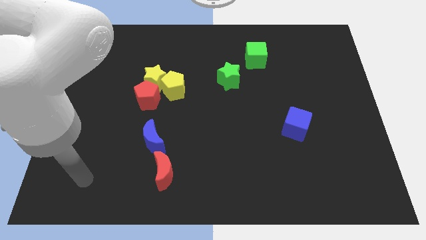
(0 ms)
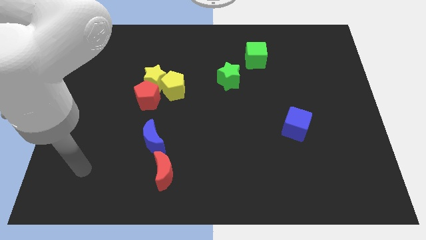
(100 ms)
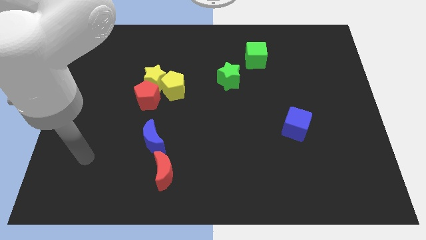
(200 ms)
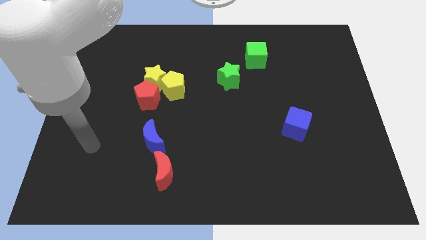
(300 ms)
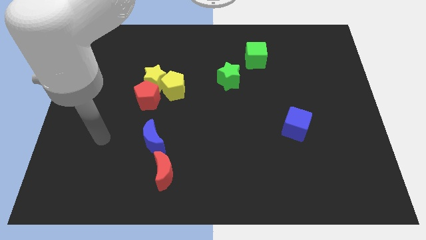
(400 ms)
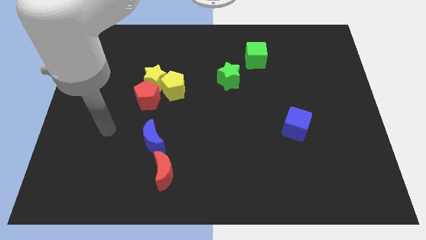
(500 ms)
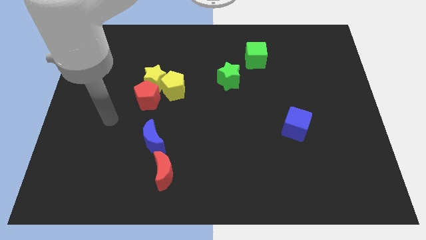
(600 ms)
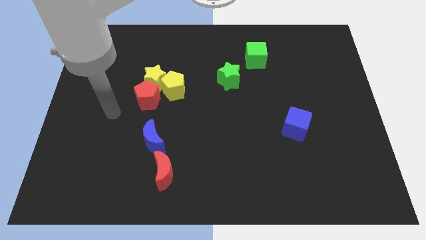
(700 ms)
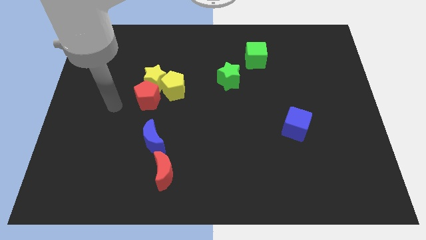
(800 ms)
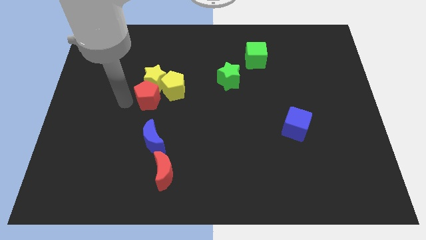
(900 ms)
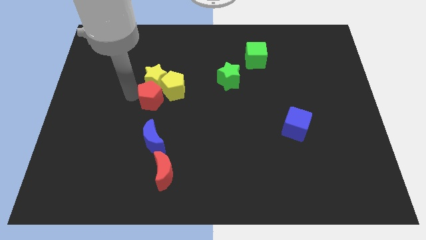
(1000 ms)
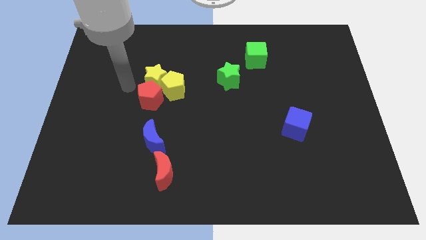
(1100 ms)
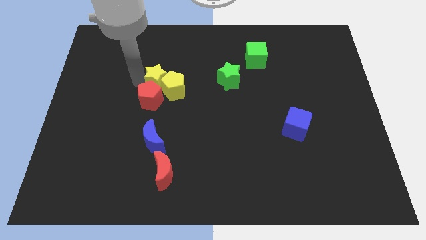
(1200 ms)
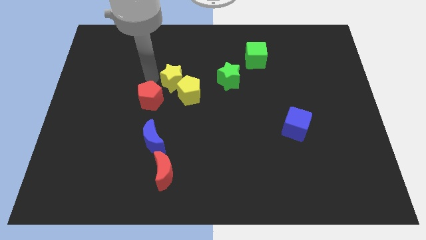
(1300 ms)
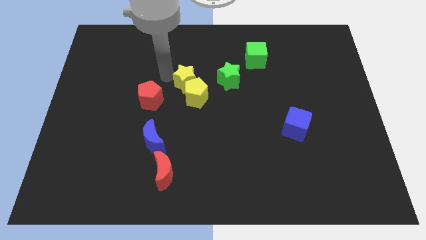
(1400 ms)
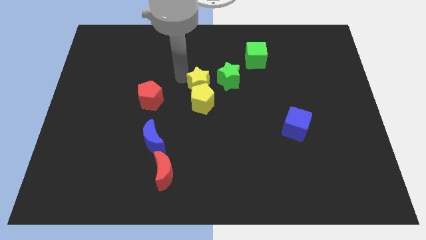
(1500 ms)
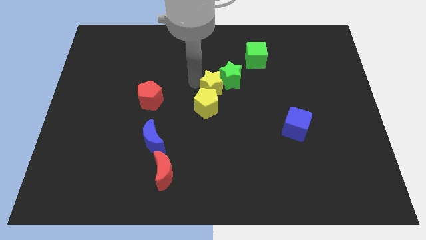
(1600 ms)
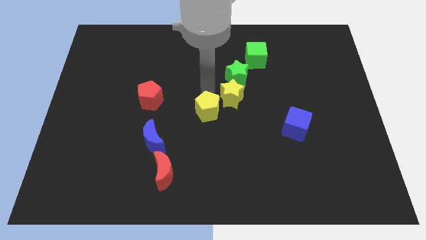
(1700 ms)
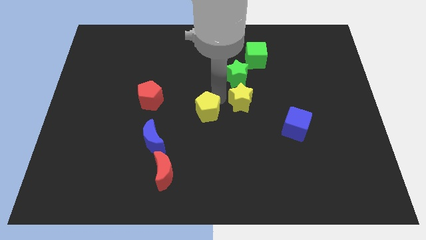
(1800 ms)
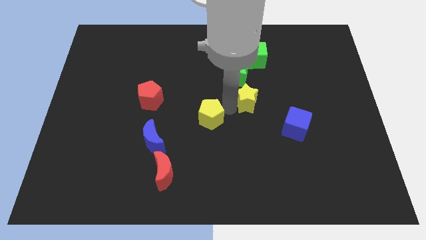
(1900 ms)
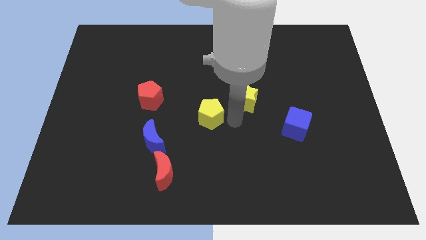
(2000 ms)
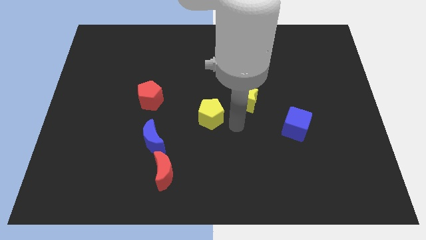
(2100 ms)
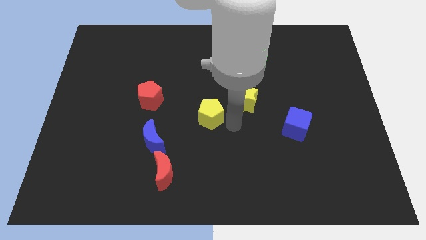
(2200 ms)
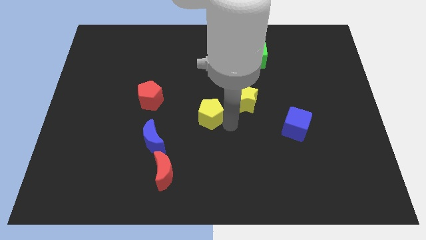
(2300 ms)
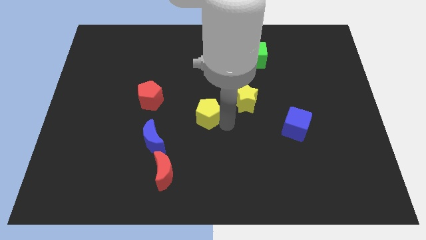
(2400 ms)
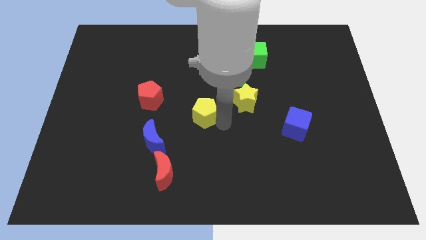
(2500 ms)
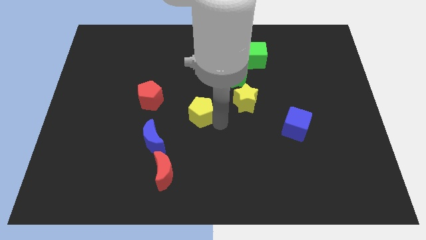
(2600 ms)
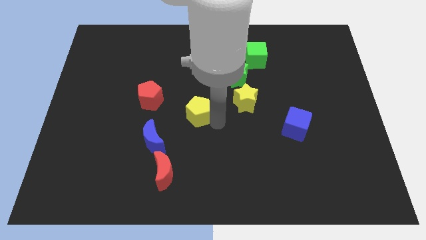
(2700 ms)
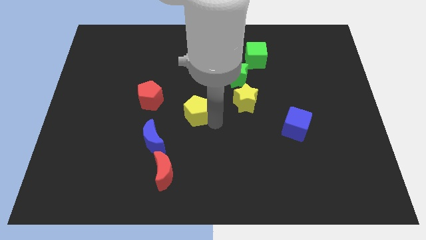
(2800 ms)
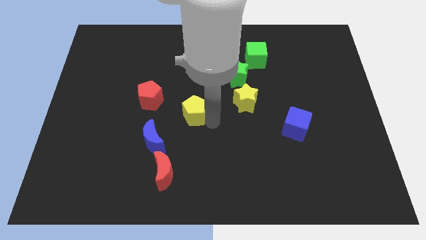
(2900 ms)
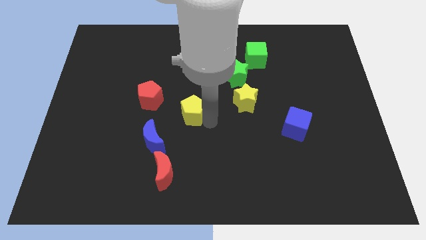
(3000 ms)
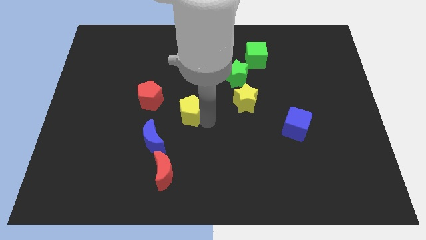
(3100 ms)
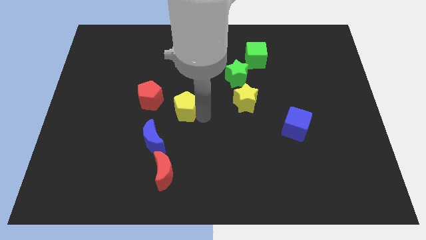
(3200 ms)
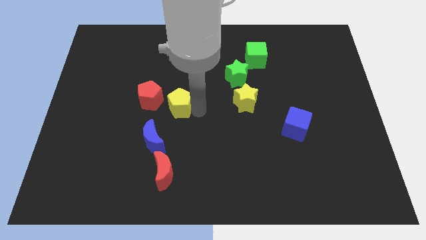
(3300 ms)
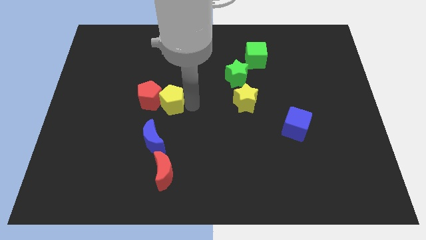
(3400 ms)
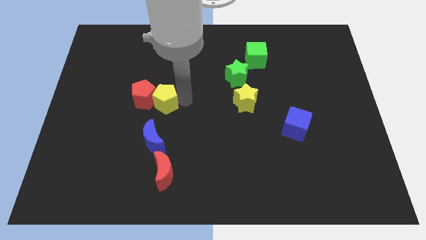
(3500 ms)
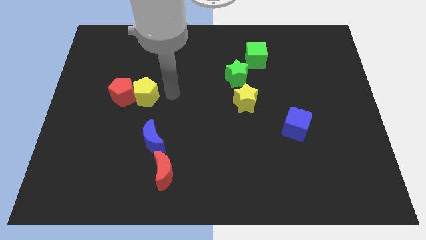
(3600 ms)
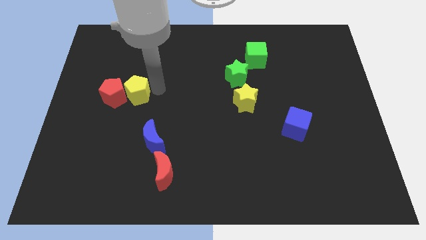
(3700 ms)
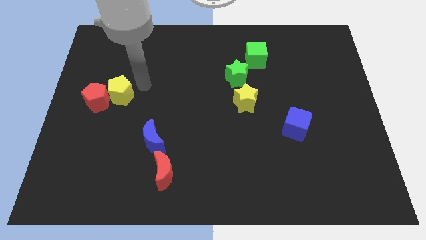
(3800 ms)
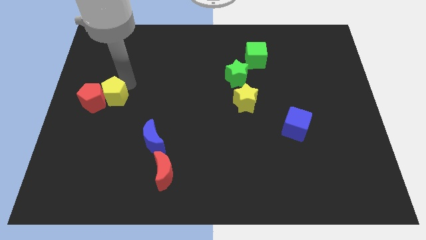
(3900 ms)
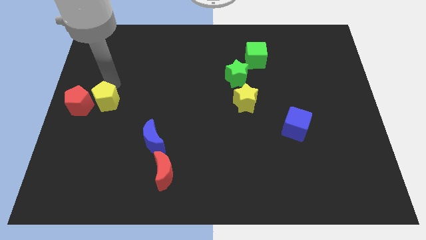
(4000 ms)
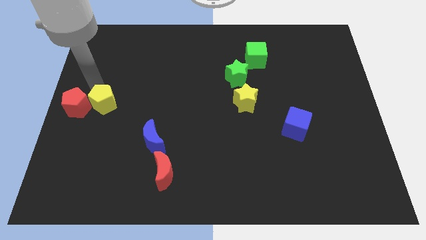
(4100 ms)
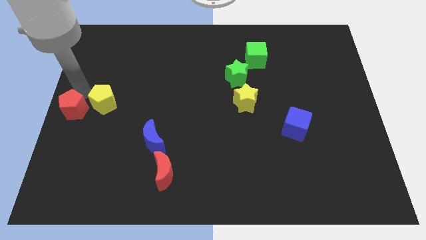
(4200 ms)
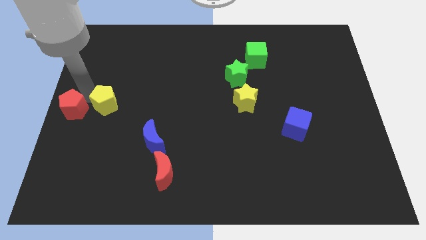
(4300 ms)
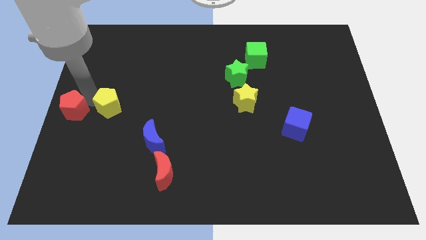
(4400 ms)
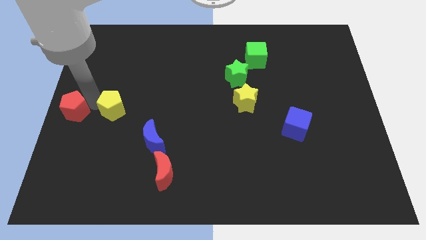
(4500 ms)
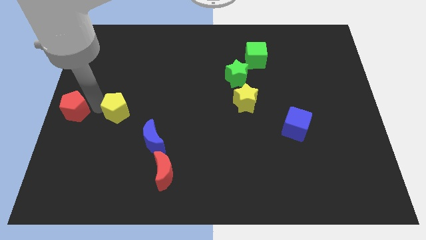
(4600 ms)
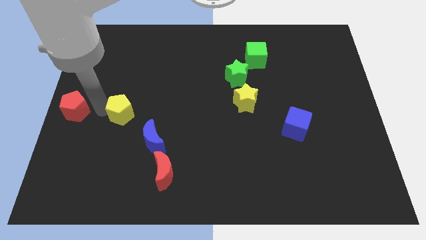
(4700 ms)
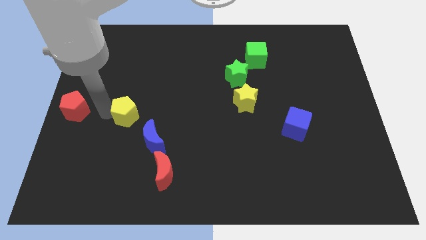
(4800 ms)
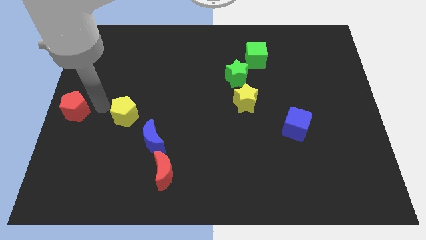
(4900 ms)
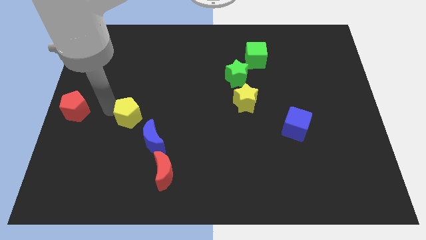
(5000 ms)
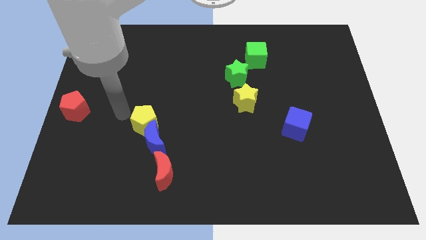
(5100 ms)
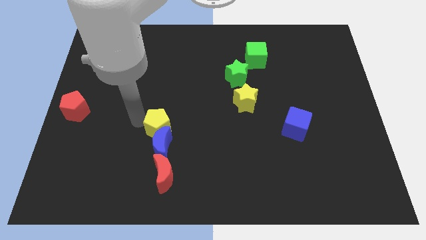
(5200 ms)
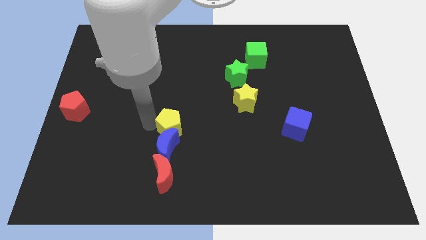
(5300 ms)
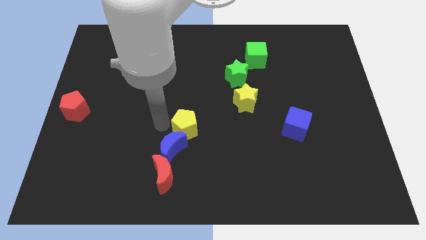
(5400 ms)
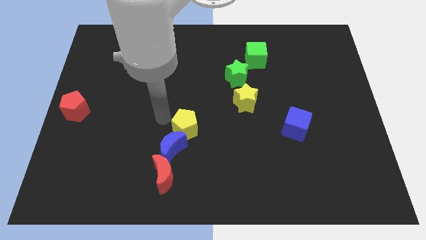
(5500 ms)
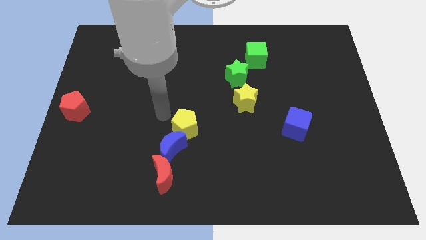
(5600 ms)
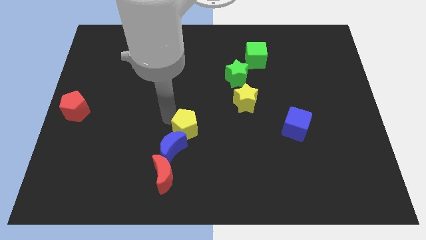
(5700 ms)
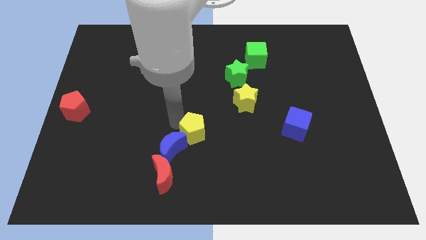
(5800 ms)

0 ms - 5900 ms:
push the yellow pentagon to the right of the blue moon

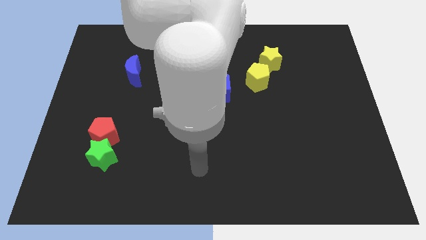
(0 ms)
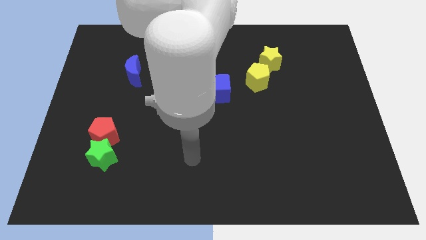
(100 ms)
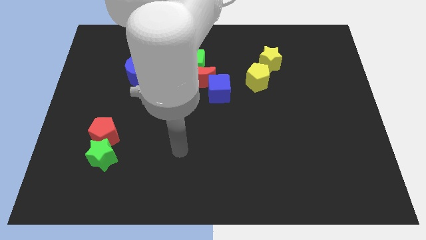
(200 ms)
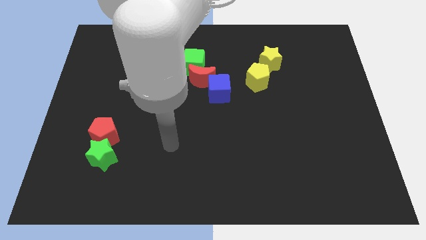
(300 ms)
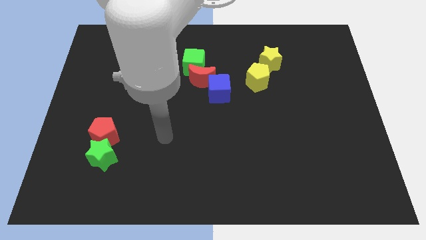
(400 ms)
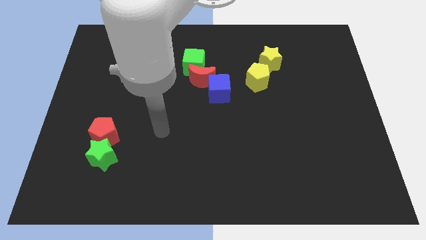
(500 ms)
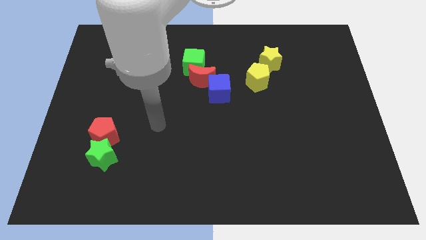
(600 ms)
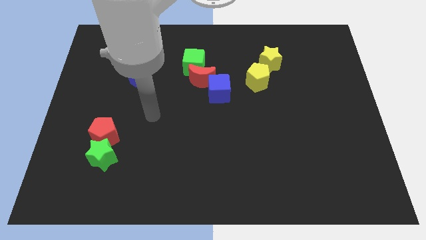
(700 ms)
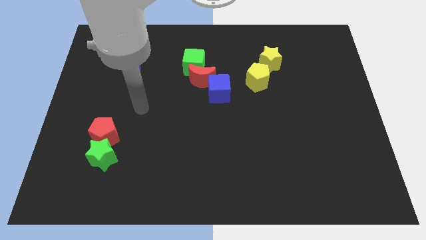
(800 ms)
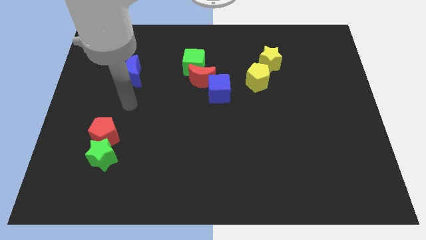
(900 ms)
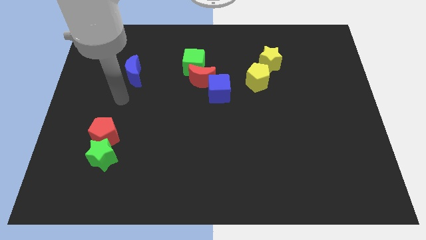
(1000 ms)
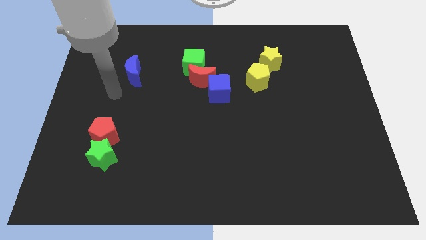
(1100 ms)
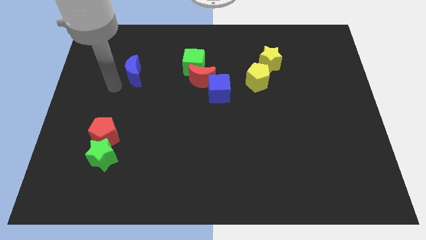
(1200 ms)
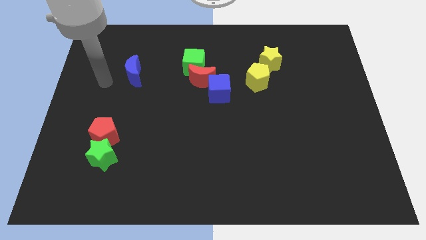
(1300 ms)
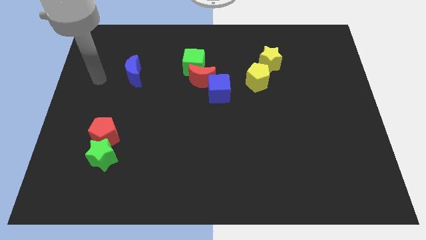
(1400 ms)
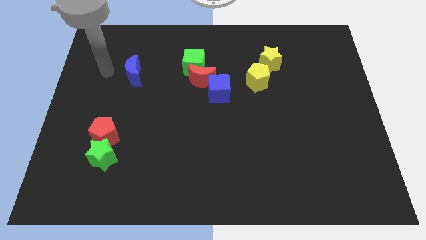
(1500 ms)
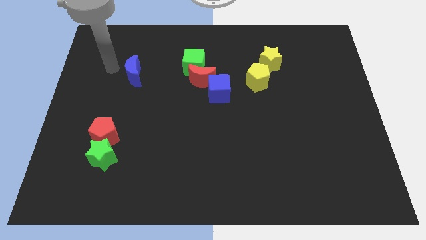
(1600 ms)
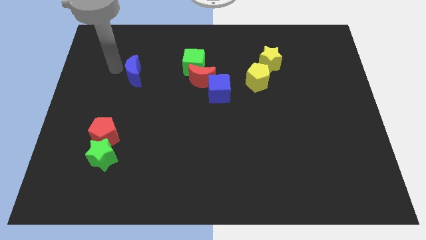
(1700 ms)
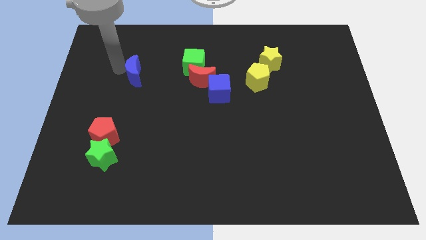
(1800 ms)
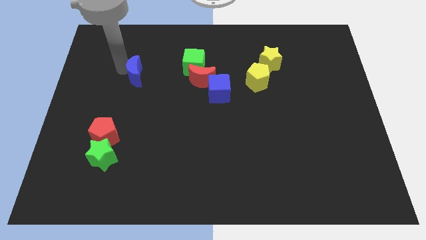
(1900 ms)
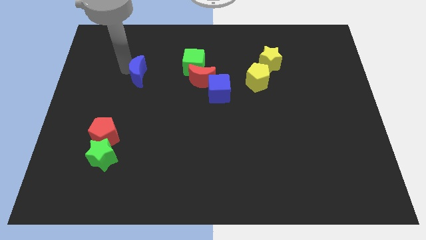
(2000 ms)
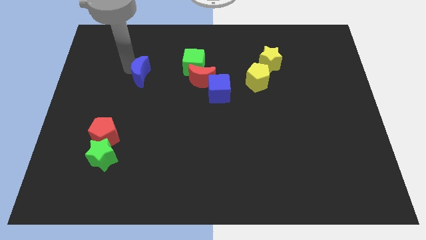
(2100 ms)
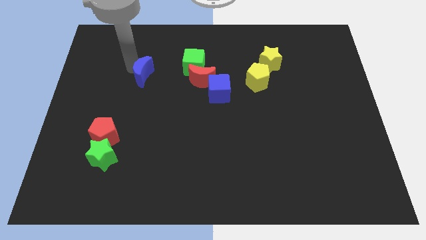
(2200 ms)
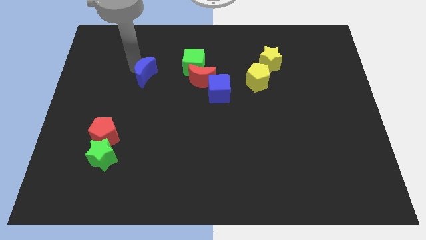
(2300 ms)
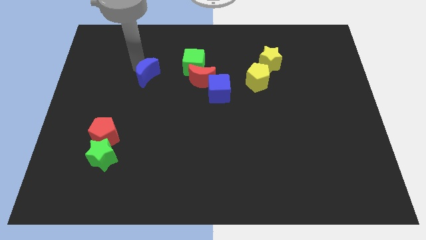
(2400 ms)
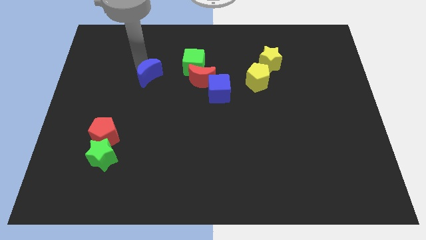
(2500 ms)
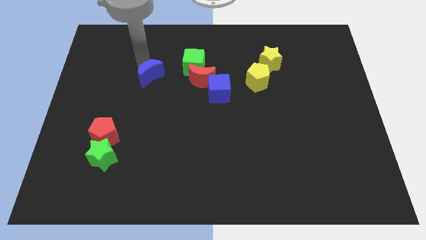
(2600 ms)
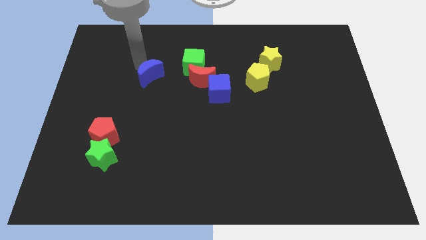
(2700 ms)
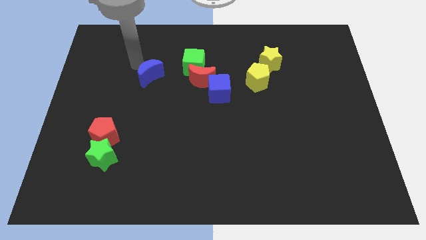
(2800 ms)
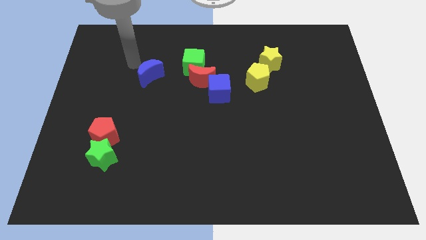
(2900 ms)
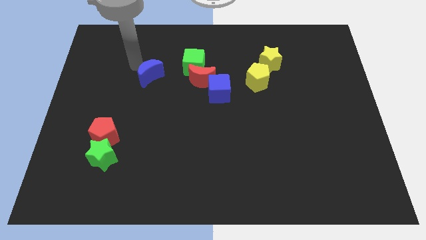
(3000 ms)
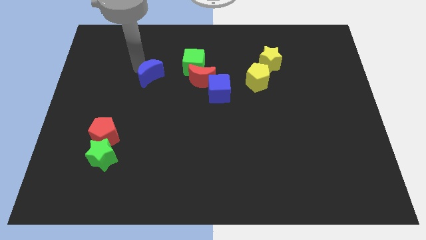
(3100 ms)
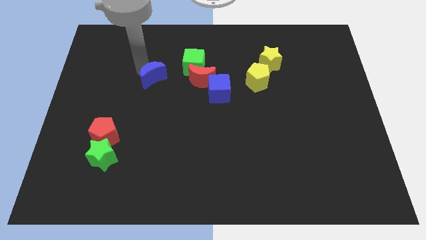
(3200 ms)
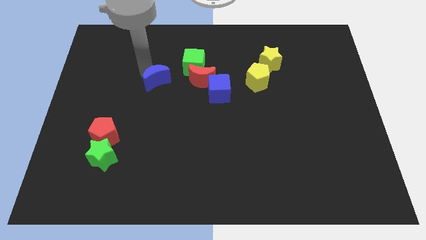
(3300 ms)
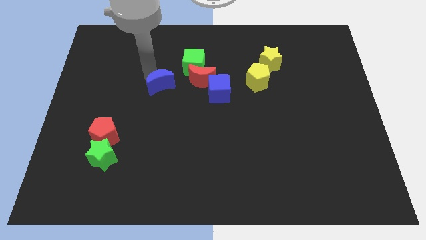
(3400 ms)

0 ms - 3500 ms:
put the blue moon to the left of the blue cube
